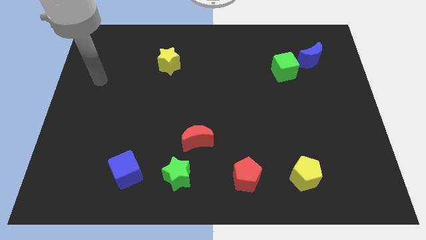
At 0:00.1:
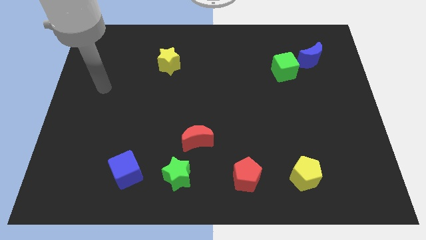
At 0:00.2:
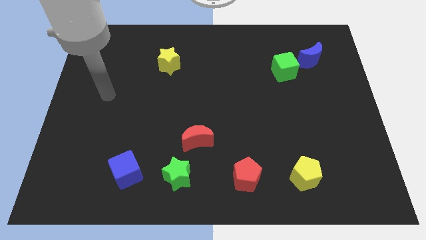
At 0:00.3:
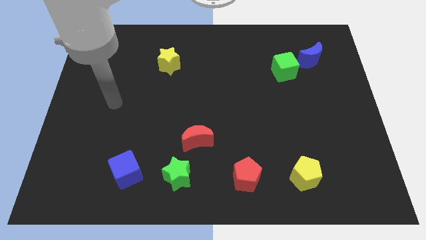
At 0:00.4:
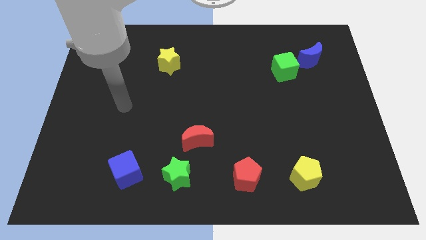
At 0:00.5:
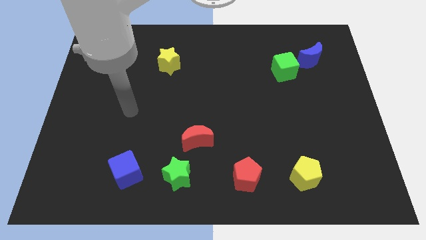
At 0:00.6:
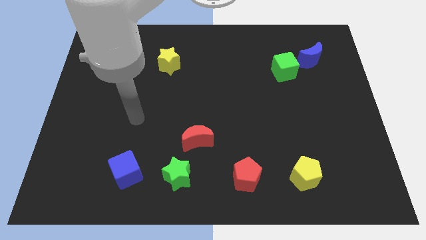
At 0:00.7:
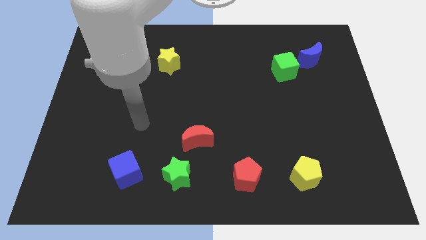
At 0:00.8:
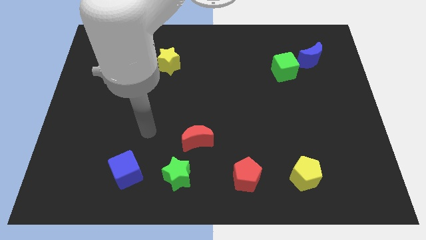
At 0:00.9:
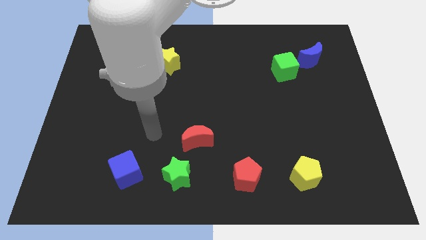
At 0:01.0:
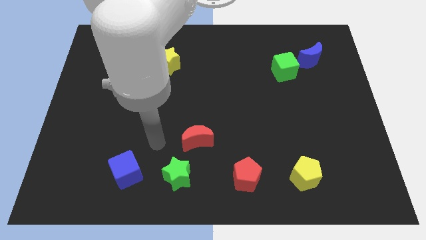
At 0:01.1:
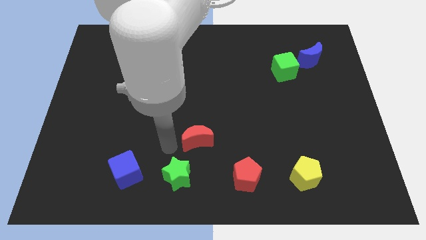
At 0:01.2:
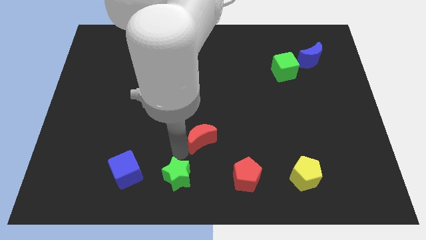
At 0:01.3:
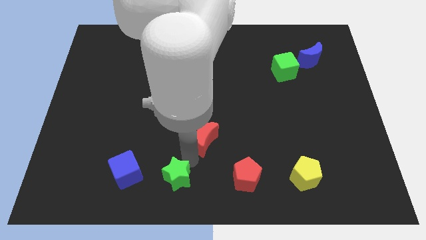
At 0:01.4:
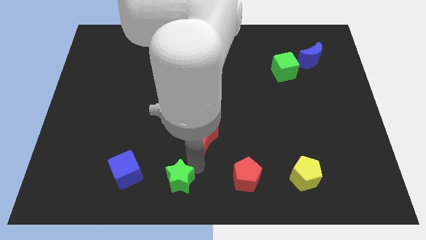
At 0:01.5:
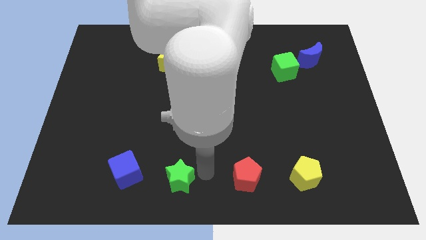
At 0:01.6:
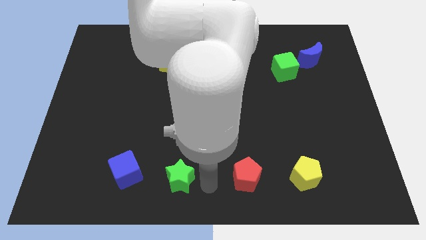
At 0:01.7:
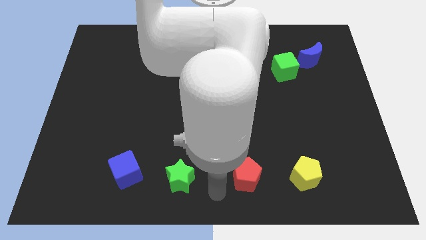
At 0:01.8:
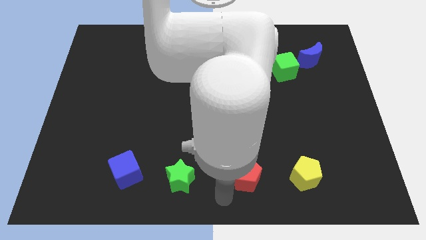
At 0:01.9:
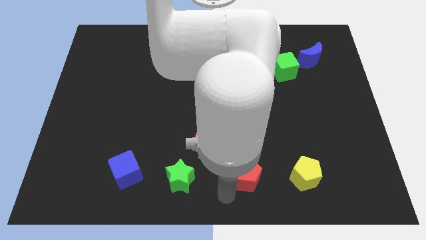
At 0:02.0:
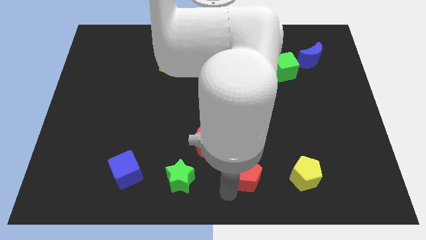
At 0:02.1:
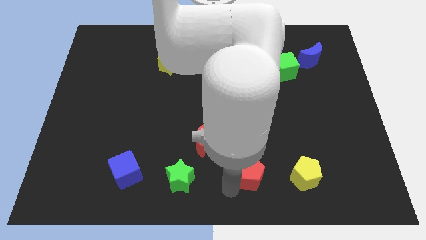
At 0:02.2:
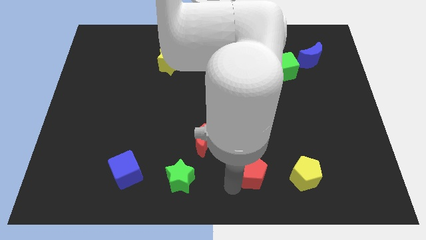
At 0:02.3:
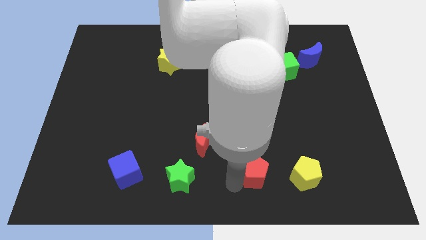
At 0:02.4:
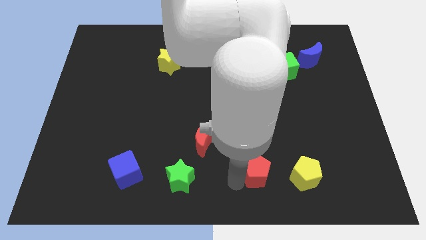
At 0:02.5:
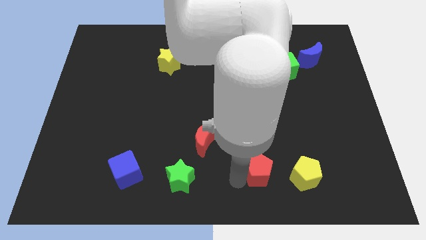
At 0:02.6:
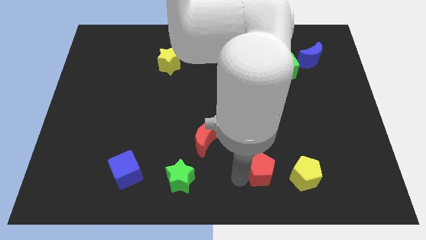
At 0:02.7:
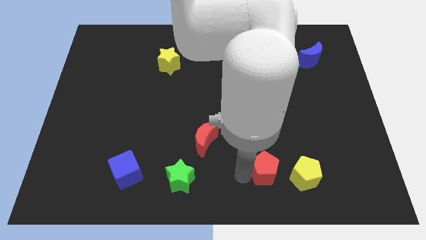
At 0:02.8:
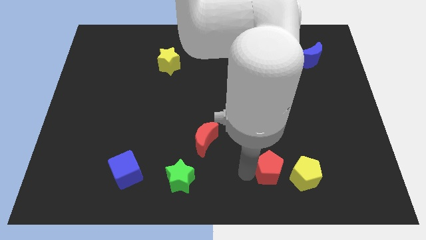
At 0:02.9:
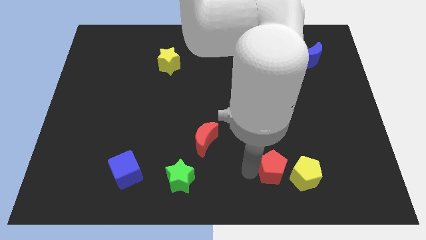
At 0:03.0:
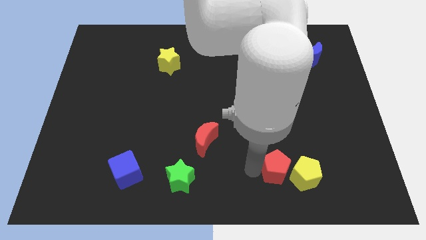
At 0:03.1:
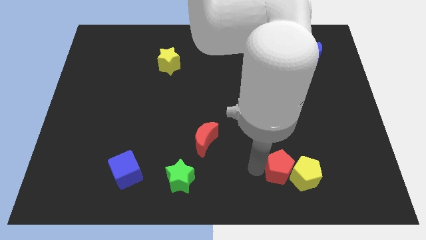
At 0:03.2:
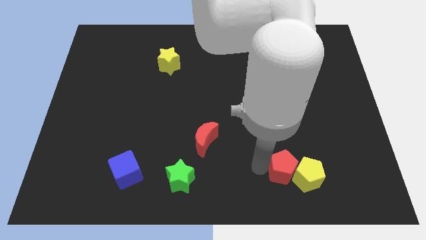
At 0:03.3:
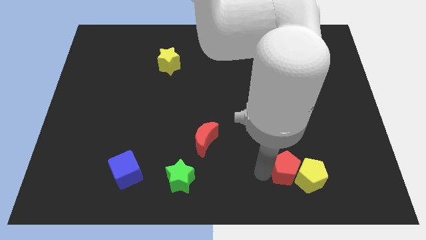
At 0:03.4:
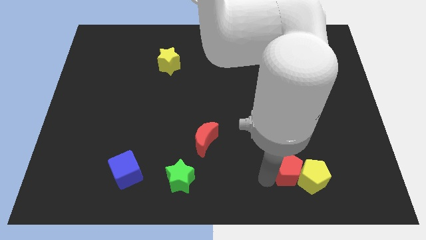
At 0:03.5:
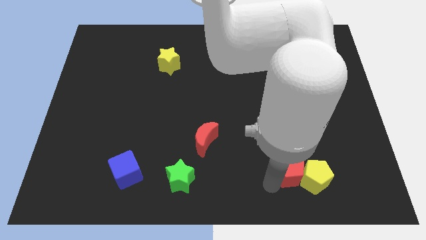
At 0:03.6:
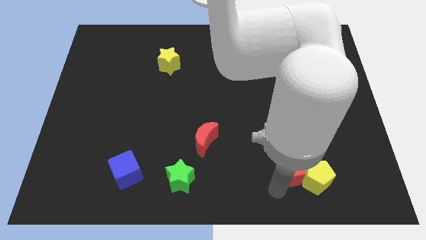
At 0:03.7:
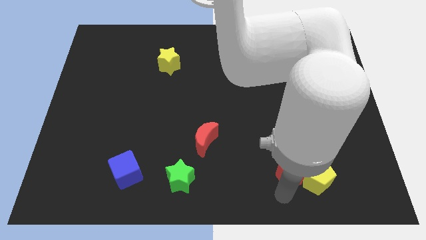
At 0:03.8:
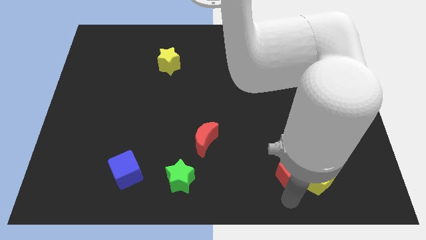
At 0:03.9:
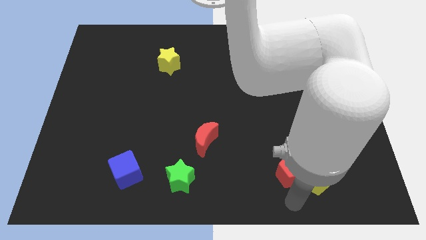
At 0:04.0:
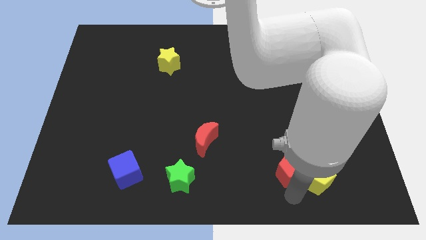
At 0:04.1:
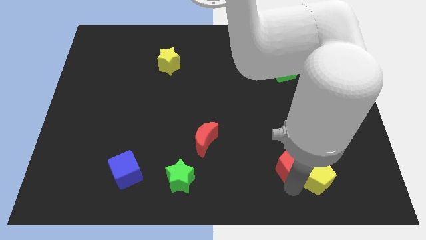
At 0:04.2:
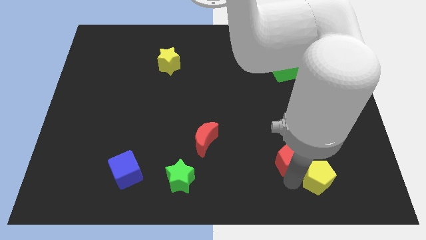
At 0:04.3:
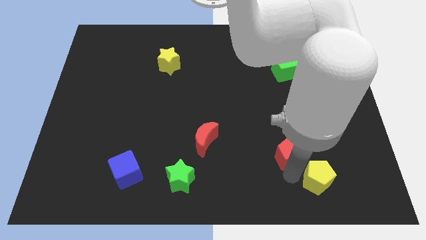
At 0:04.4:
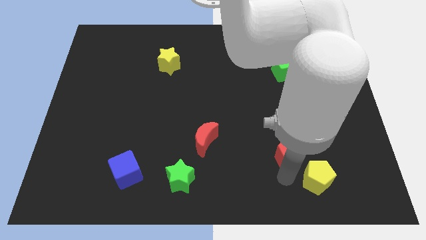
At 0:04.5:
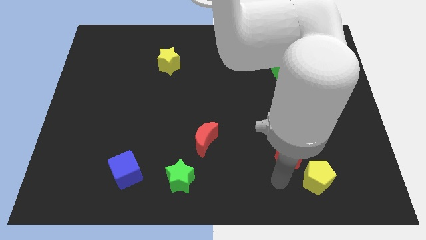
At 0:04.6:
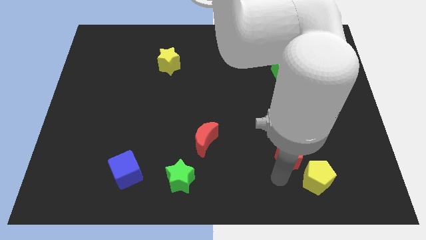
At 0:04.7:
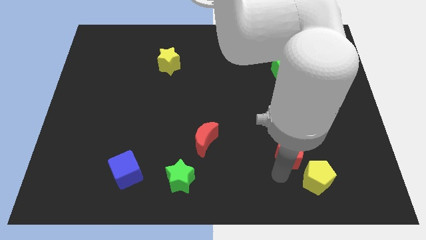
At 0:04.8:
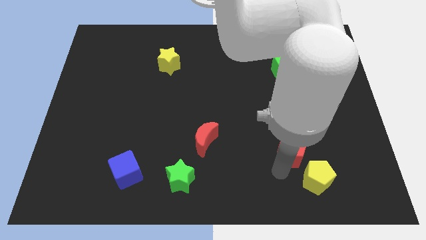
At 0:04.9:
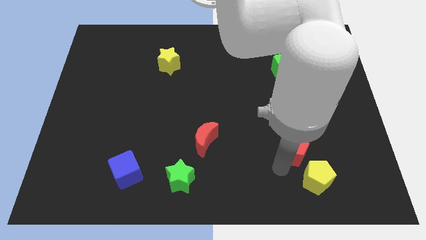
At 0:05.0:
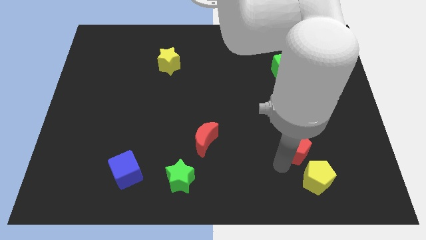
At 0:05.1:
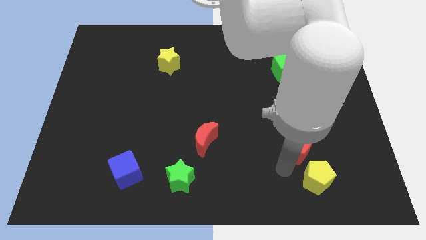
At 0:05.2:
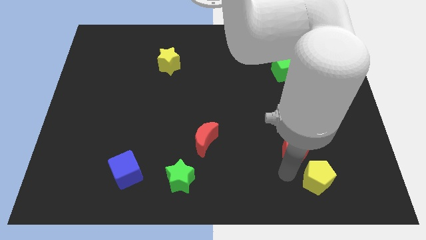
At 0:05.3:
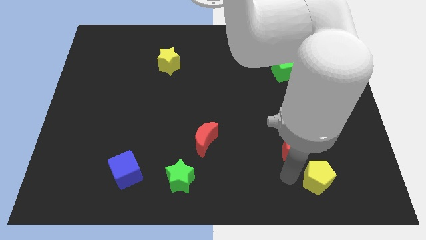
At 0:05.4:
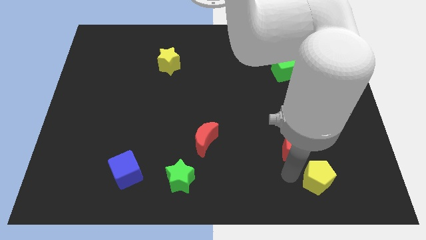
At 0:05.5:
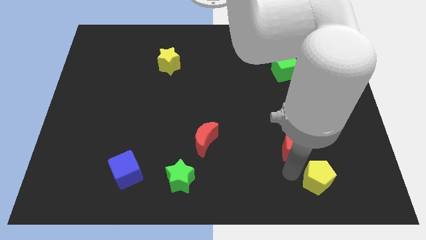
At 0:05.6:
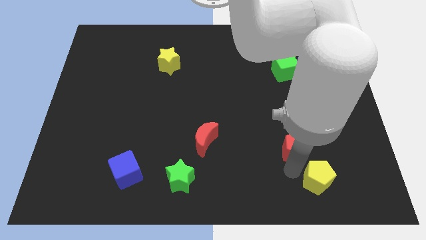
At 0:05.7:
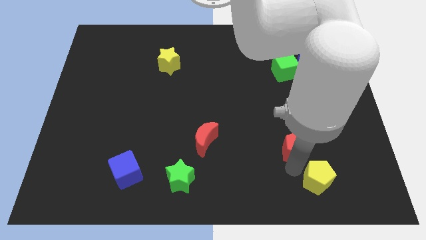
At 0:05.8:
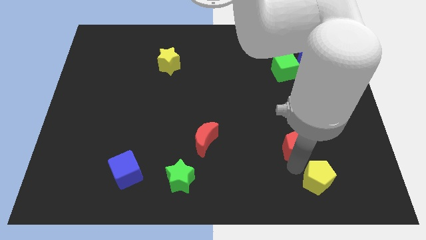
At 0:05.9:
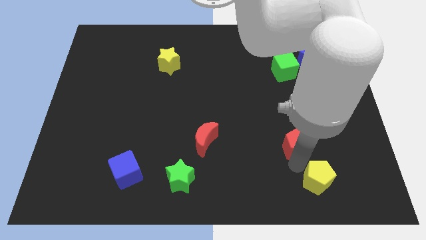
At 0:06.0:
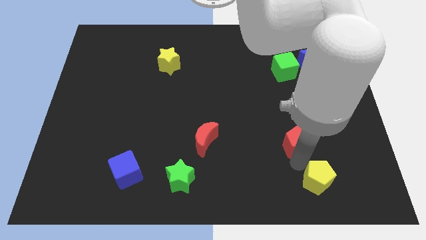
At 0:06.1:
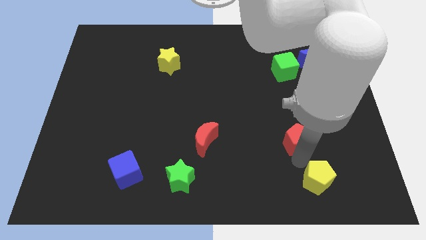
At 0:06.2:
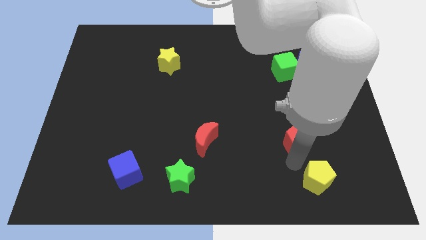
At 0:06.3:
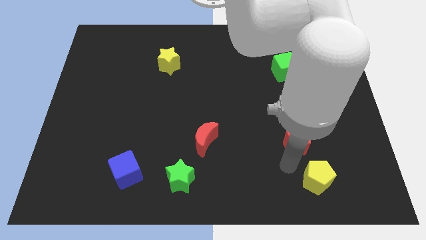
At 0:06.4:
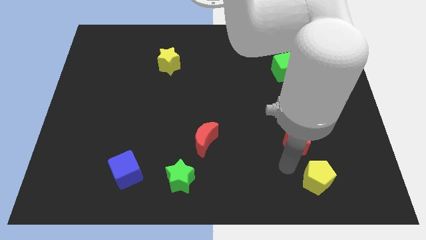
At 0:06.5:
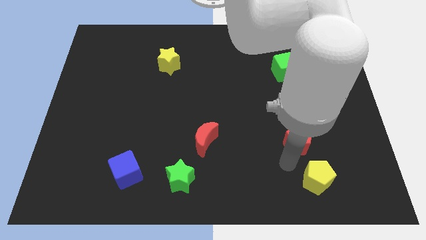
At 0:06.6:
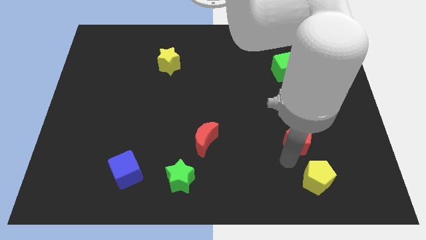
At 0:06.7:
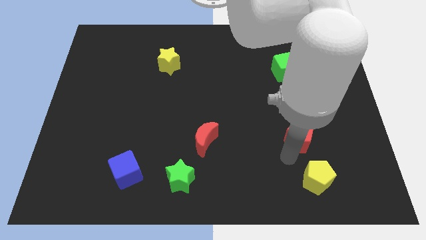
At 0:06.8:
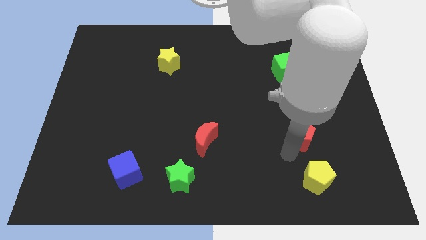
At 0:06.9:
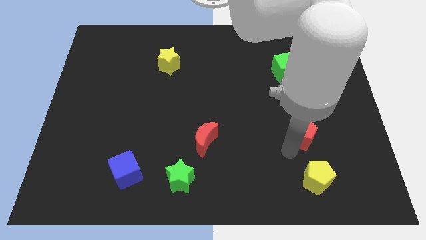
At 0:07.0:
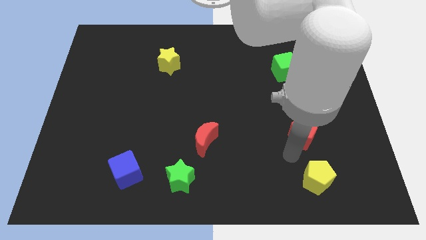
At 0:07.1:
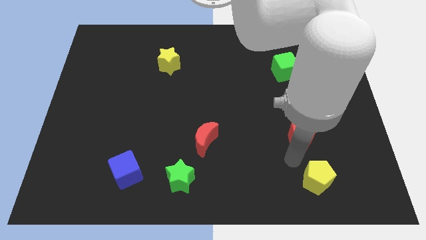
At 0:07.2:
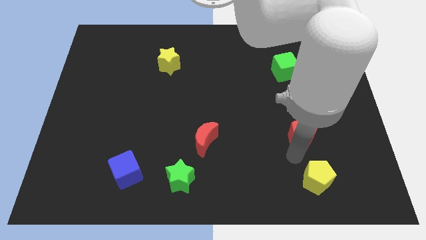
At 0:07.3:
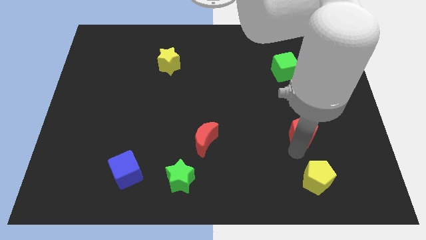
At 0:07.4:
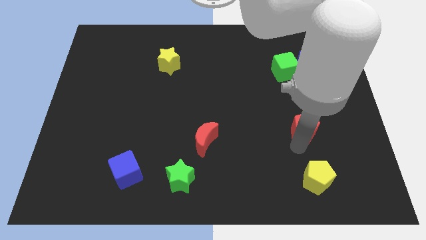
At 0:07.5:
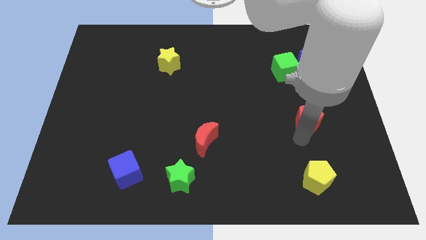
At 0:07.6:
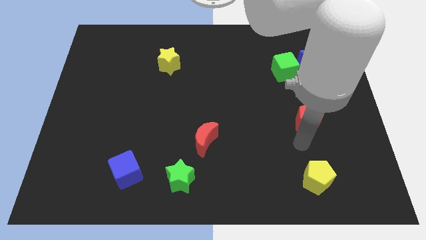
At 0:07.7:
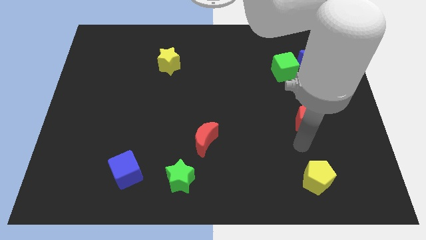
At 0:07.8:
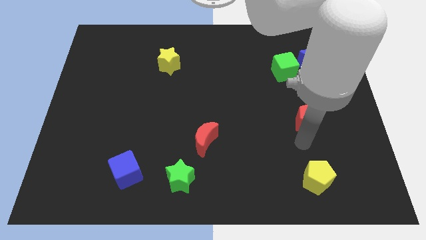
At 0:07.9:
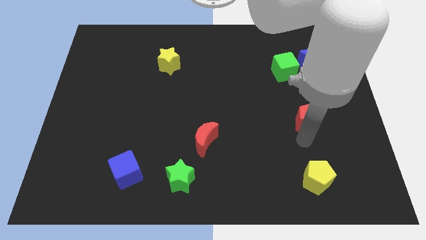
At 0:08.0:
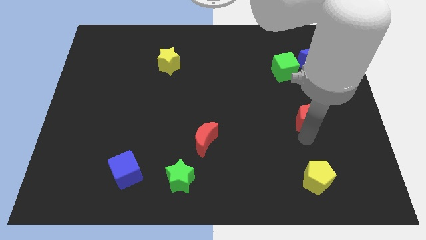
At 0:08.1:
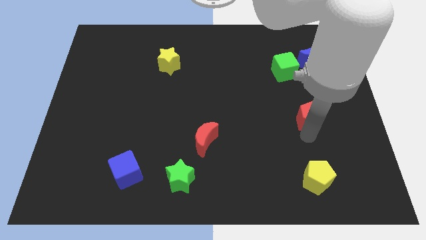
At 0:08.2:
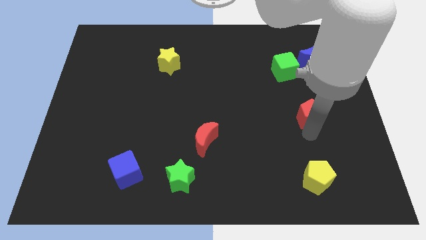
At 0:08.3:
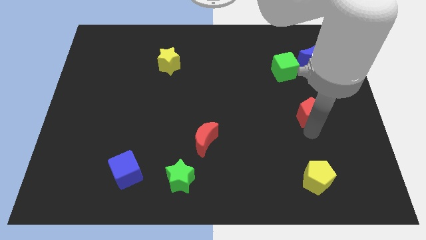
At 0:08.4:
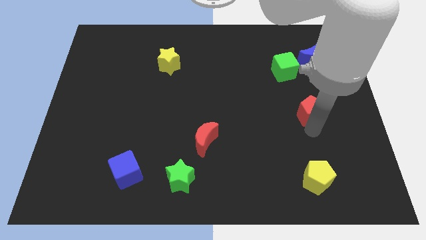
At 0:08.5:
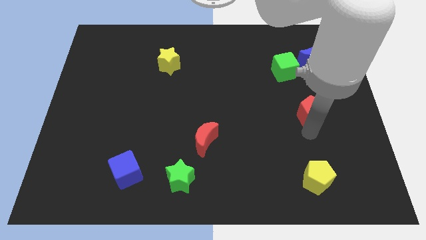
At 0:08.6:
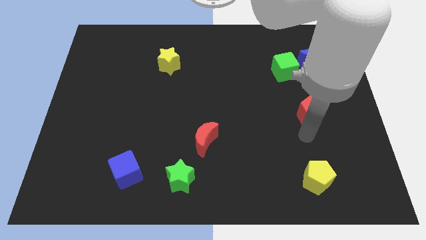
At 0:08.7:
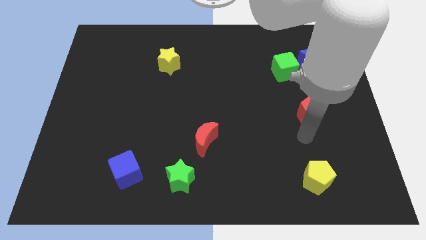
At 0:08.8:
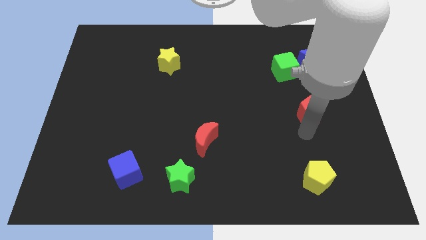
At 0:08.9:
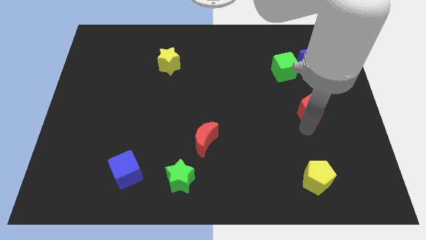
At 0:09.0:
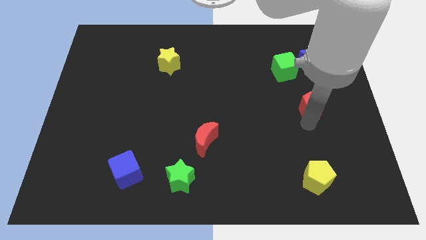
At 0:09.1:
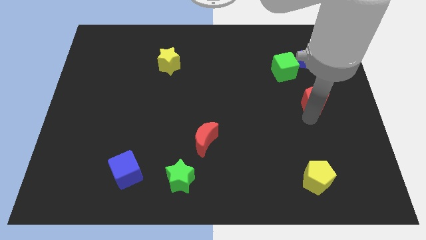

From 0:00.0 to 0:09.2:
put the red pentagon below the blue moon
